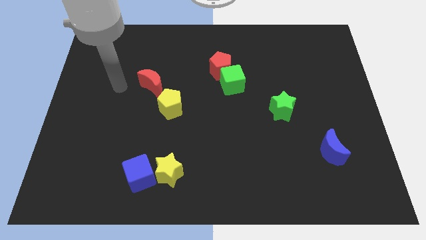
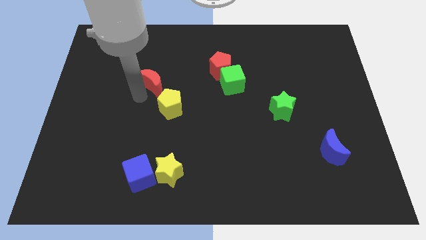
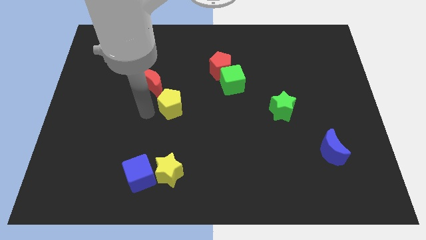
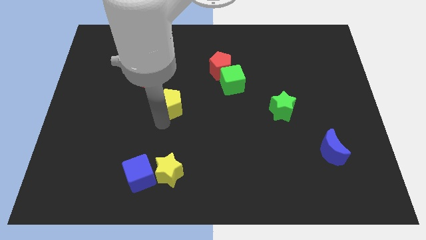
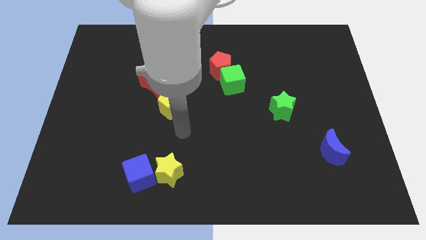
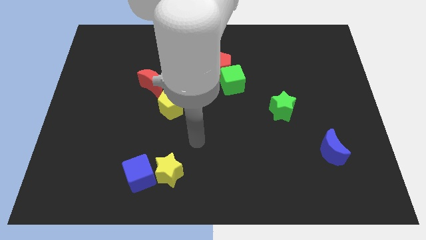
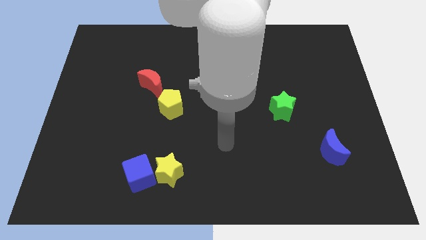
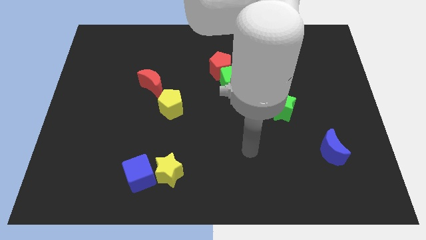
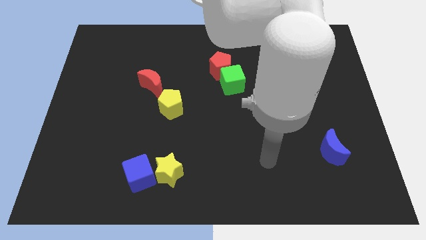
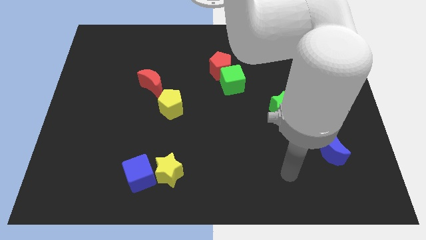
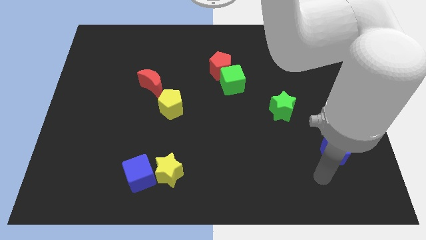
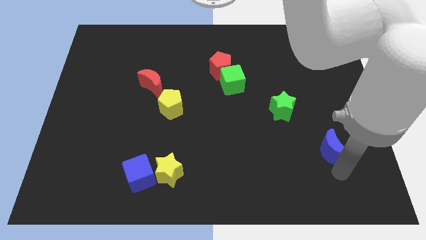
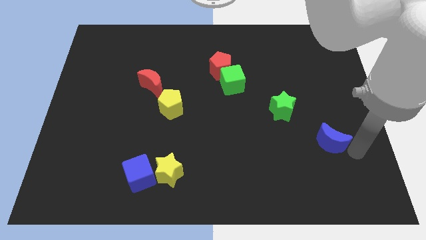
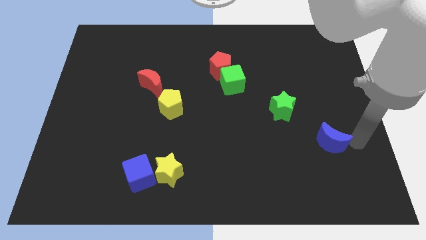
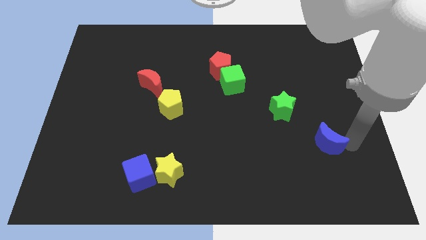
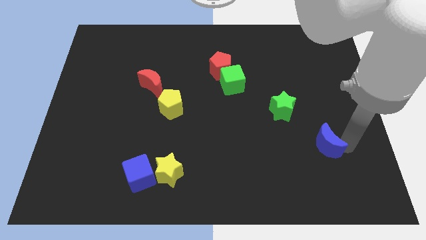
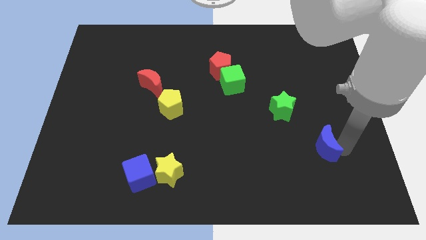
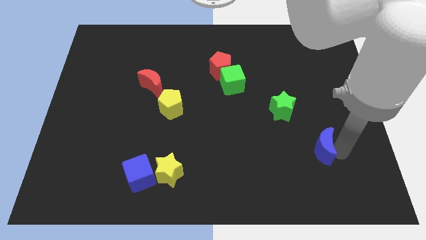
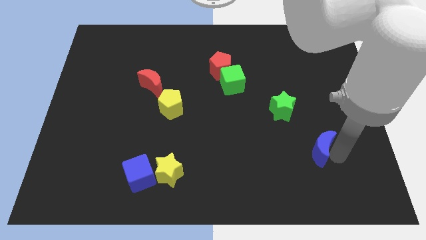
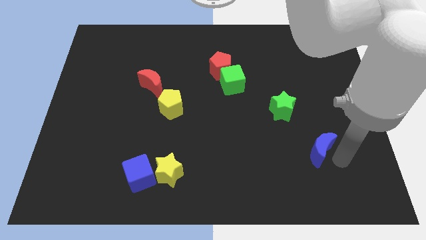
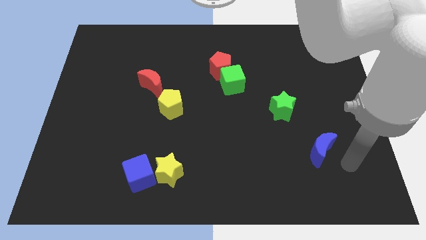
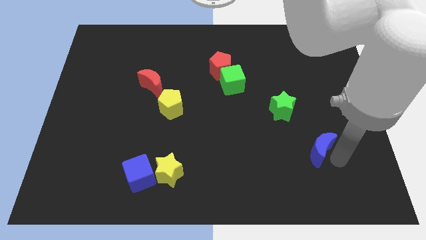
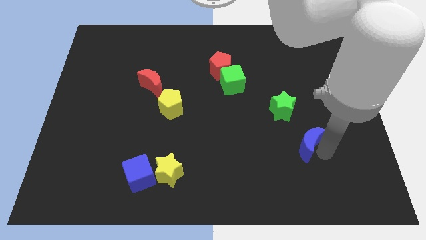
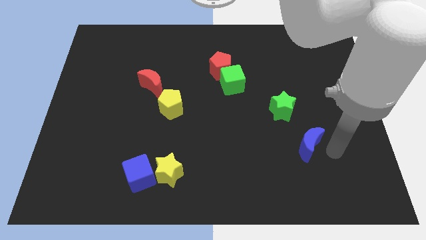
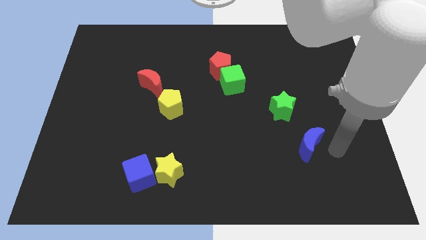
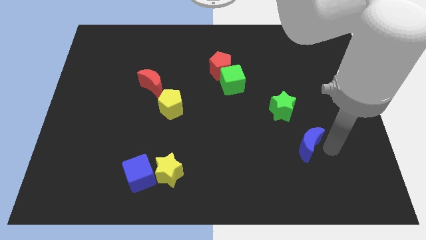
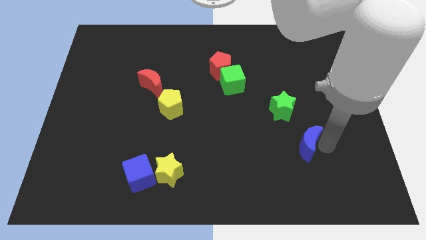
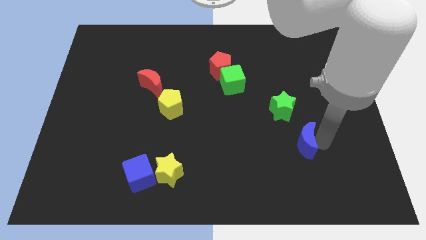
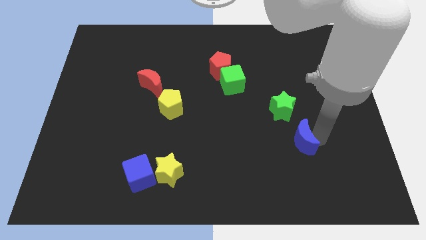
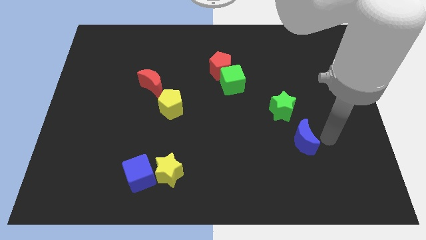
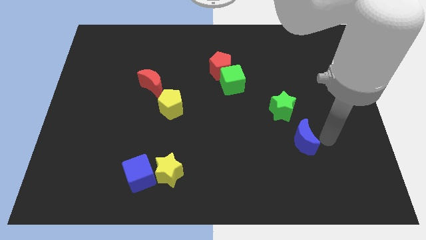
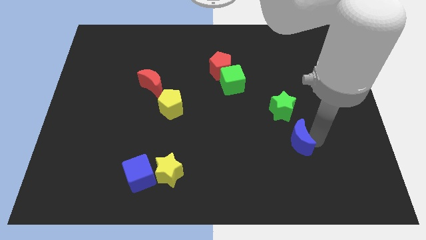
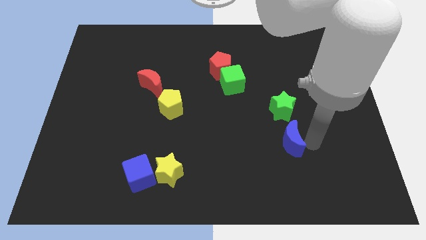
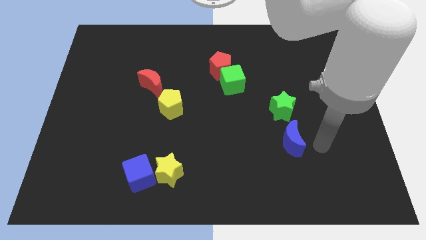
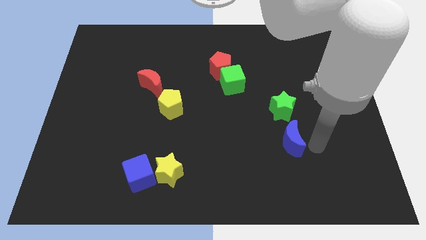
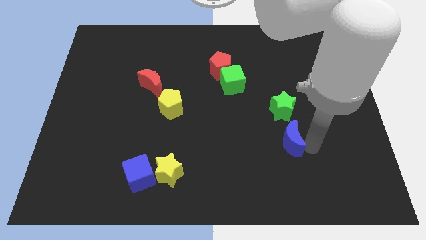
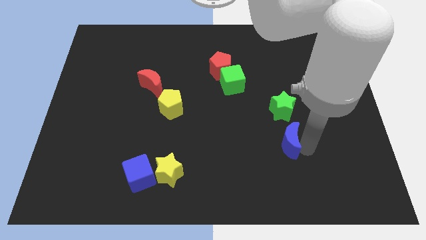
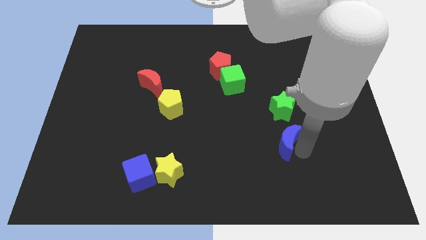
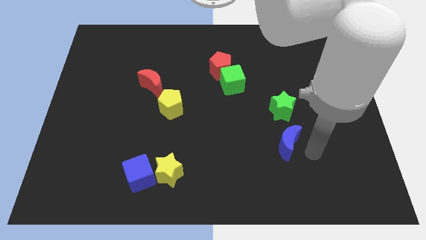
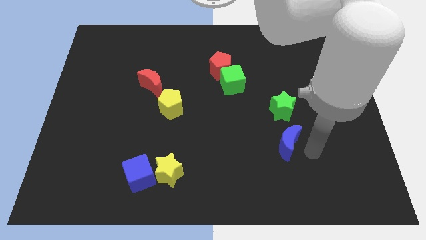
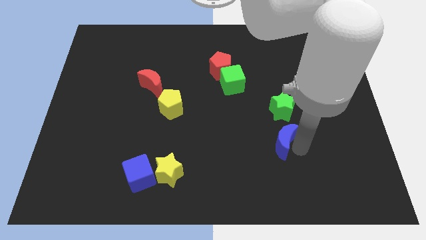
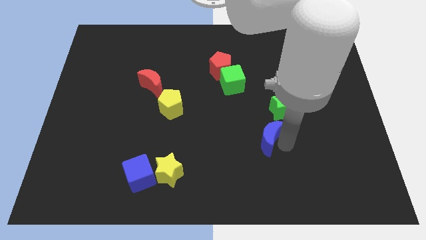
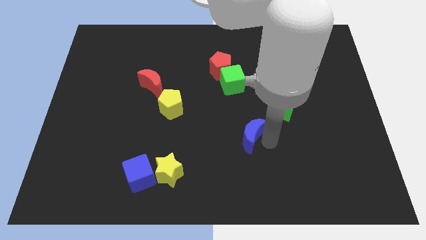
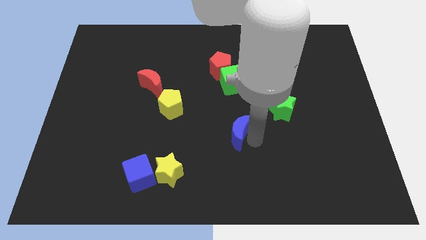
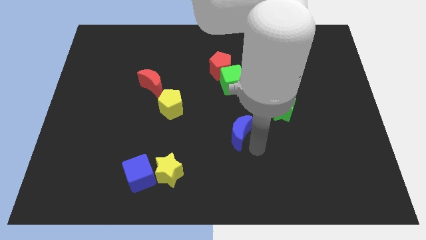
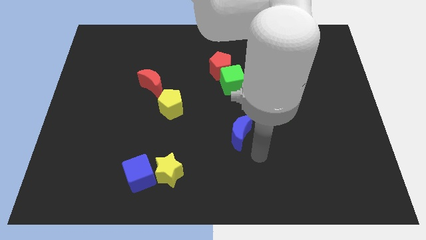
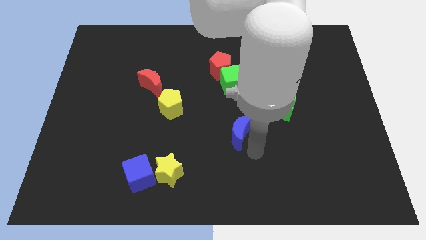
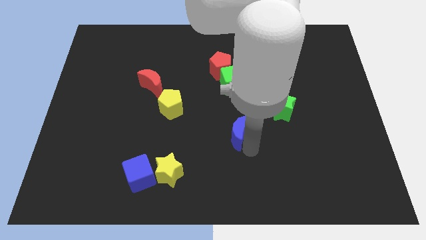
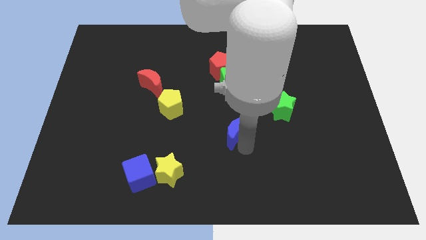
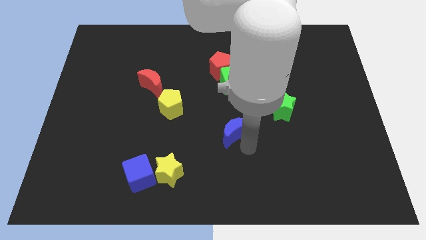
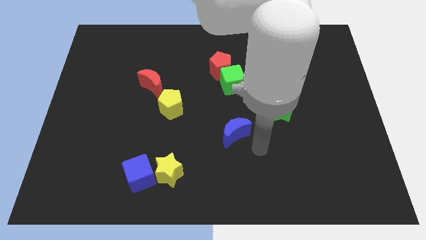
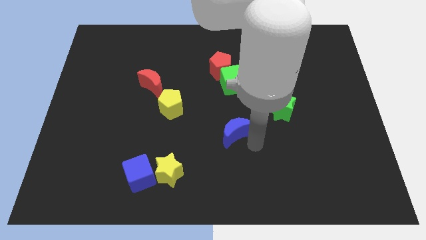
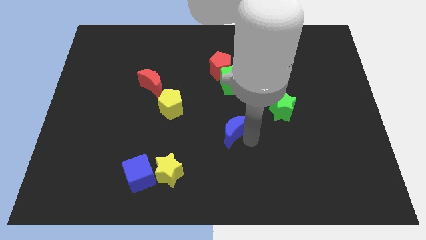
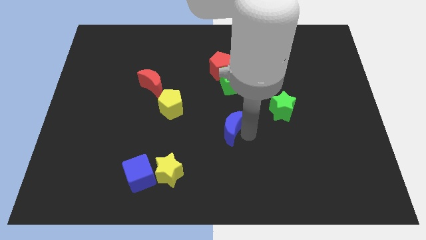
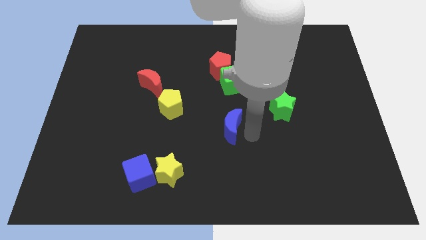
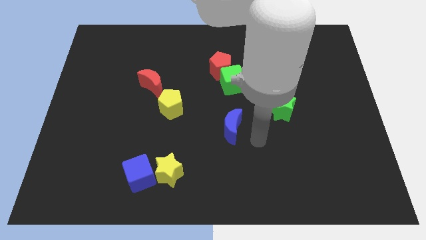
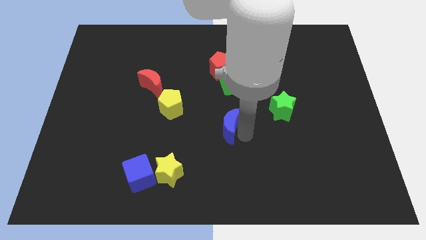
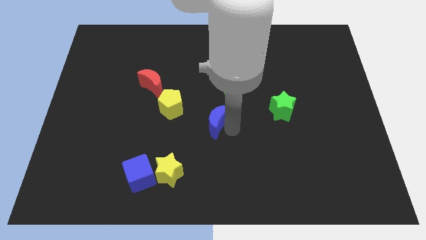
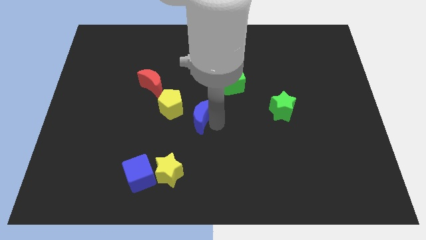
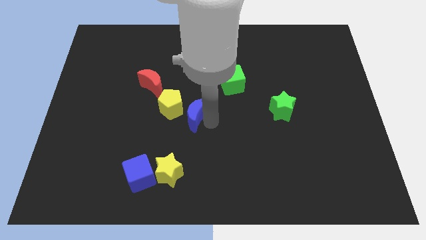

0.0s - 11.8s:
push the blue moon towards the yellow pentagon
